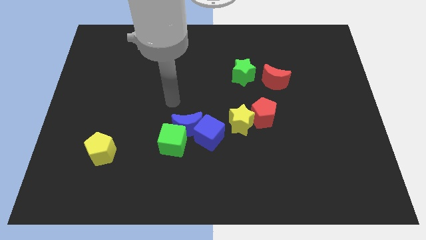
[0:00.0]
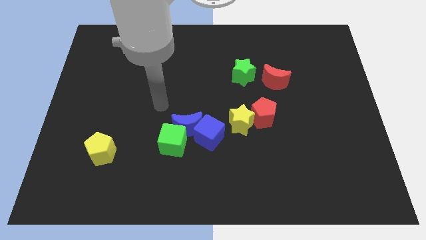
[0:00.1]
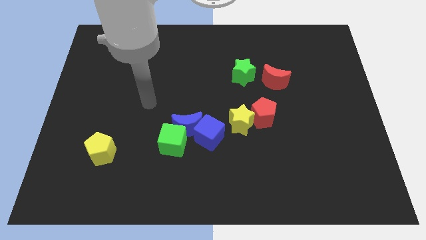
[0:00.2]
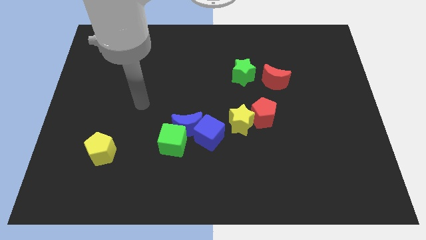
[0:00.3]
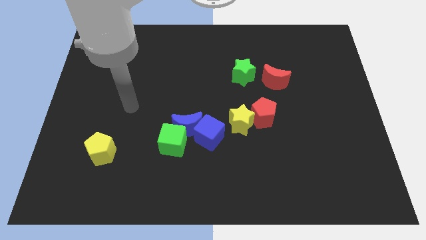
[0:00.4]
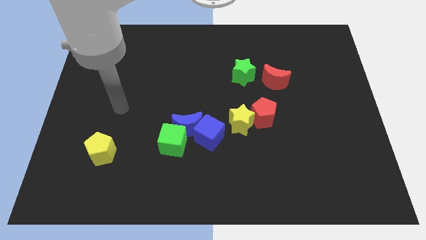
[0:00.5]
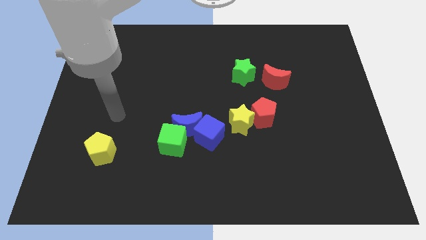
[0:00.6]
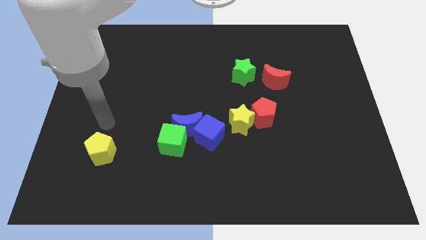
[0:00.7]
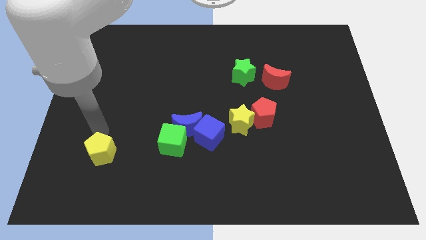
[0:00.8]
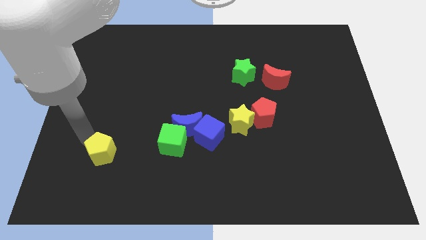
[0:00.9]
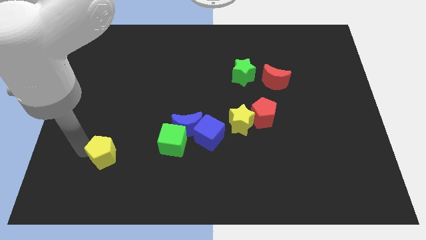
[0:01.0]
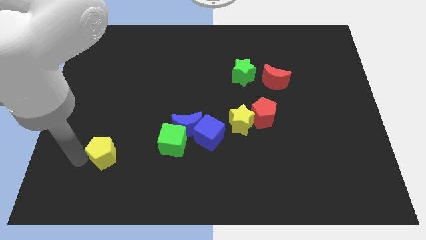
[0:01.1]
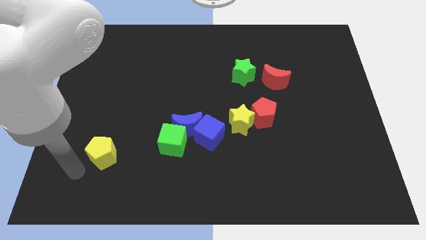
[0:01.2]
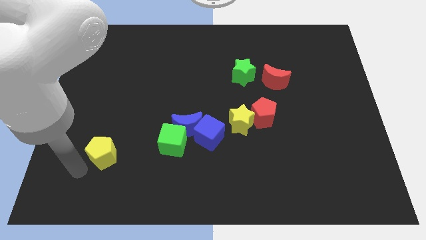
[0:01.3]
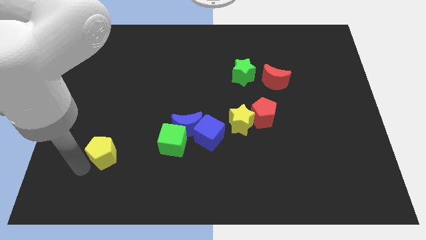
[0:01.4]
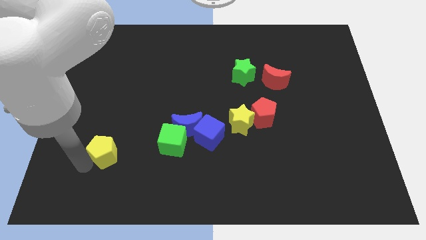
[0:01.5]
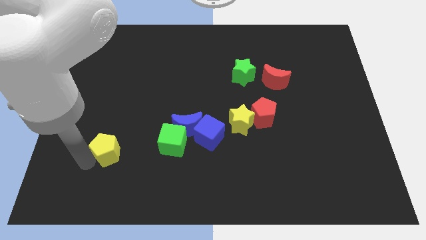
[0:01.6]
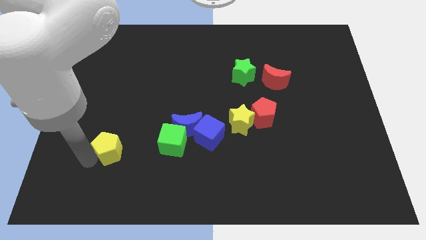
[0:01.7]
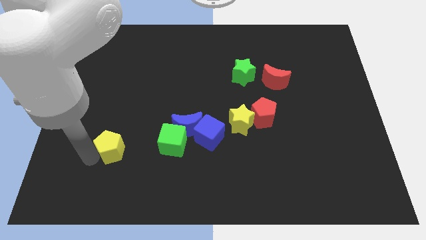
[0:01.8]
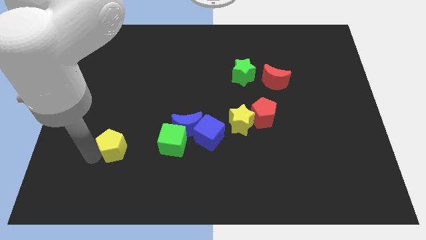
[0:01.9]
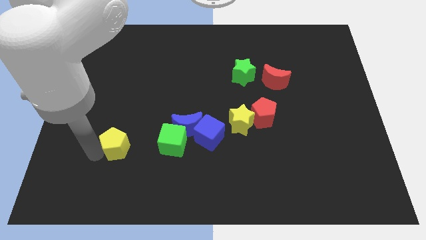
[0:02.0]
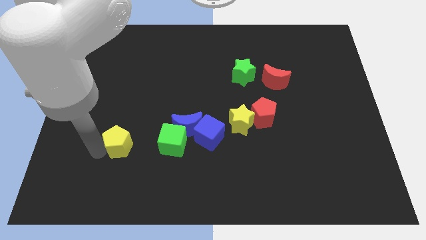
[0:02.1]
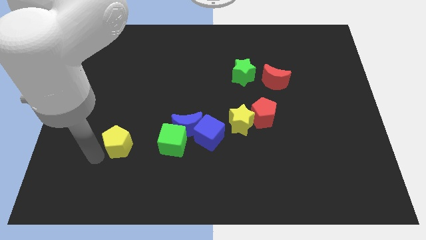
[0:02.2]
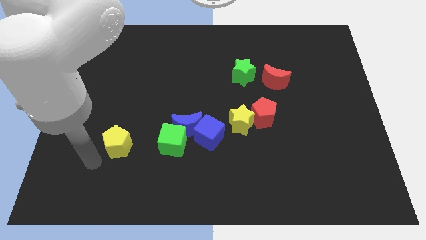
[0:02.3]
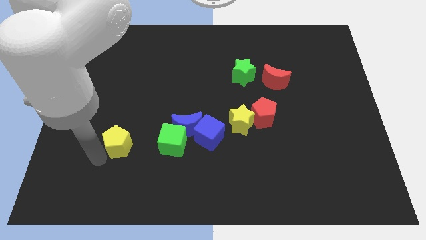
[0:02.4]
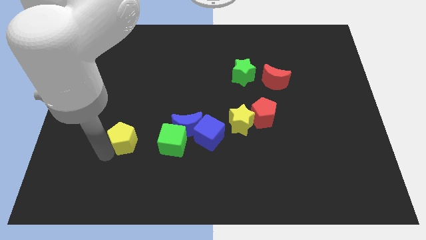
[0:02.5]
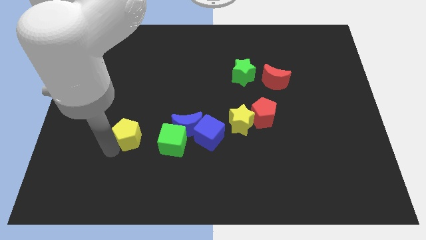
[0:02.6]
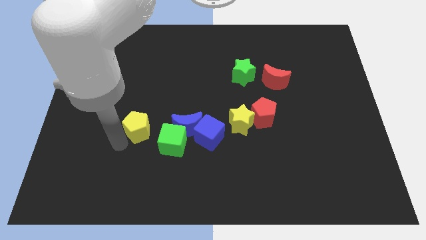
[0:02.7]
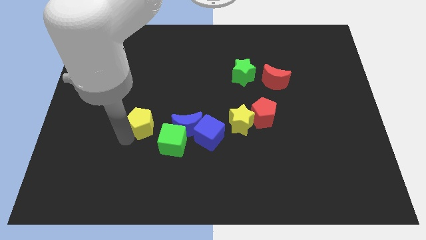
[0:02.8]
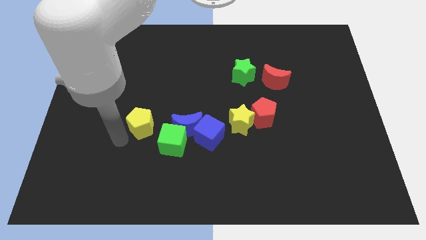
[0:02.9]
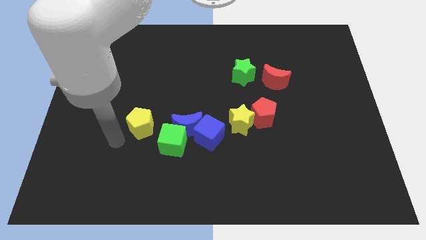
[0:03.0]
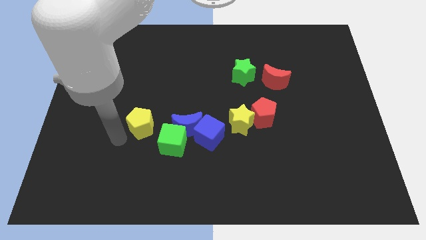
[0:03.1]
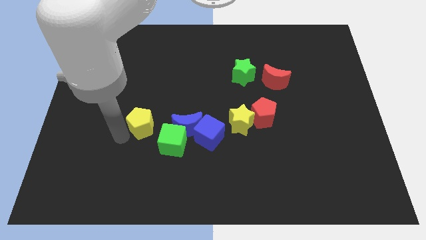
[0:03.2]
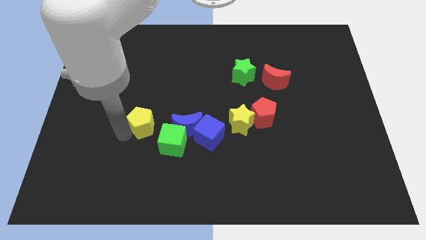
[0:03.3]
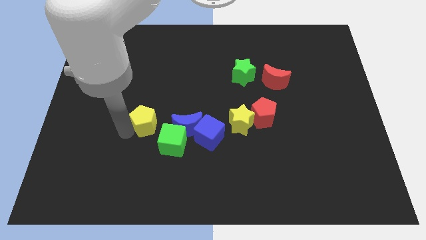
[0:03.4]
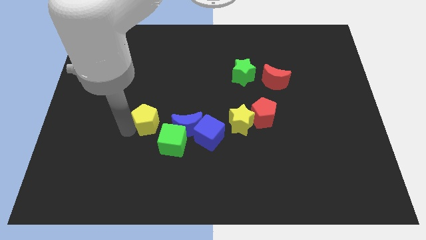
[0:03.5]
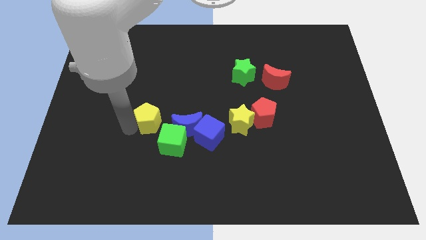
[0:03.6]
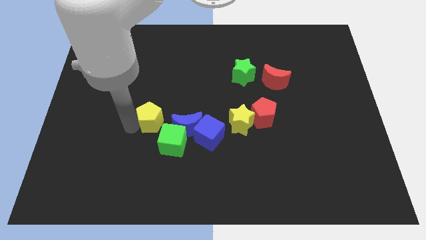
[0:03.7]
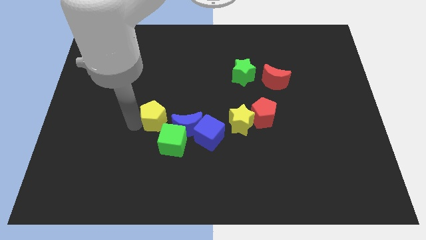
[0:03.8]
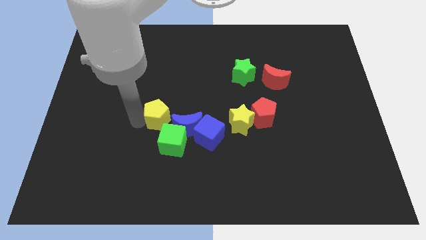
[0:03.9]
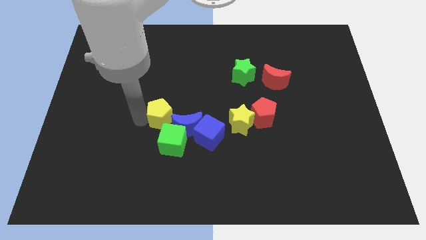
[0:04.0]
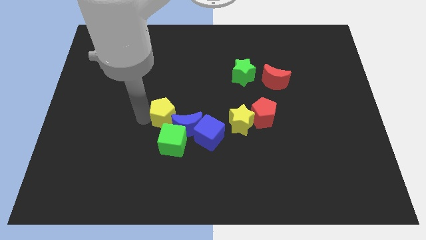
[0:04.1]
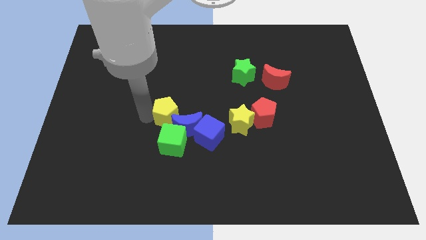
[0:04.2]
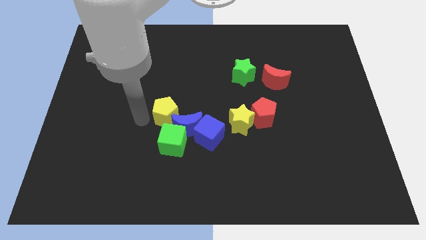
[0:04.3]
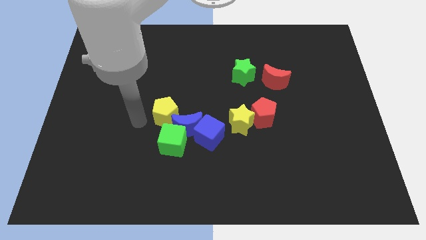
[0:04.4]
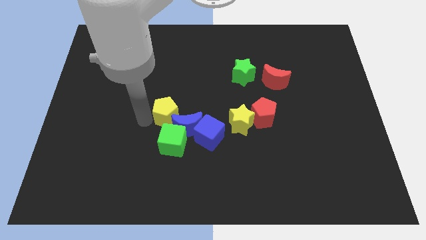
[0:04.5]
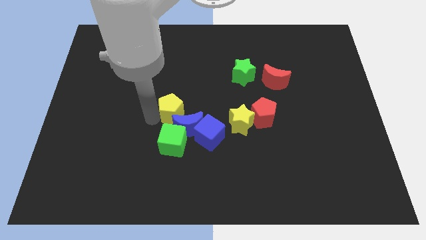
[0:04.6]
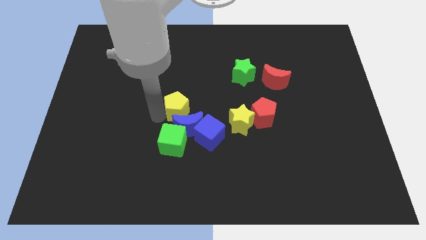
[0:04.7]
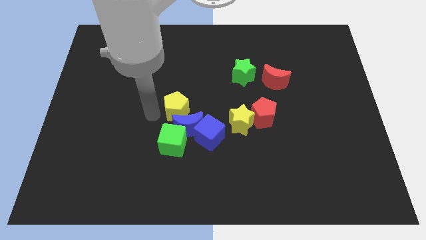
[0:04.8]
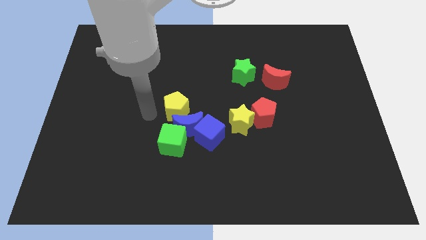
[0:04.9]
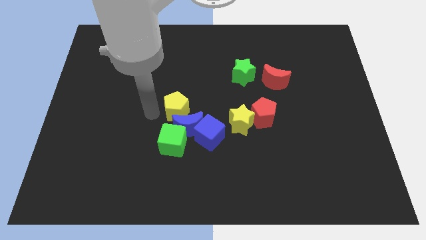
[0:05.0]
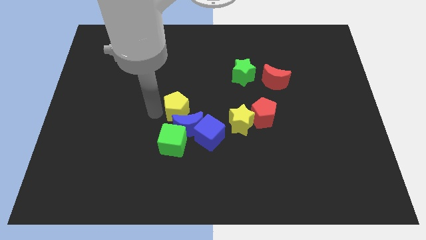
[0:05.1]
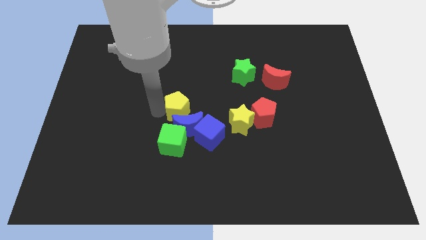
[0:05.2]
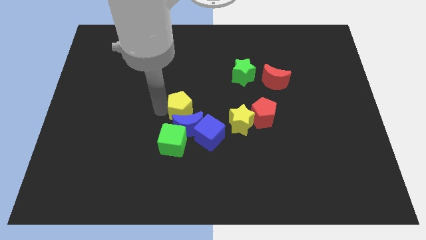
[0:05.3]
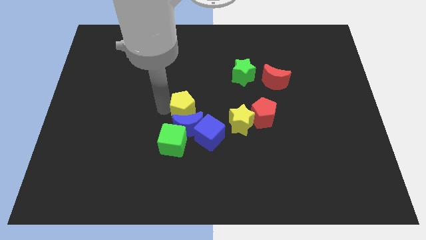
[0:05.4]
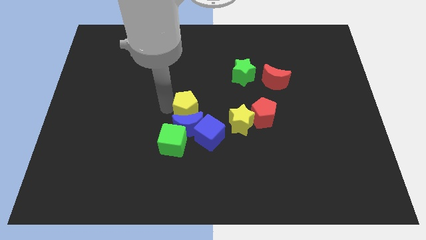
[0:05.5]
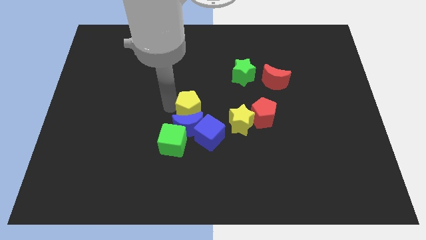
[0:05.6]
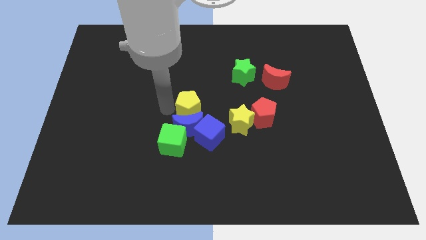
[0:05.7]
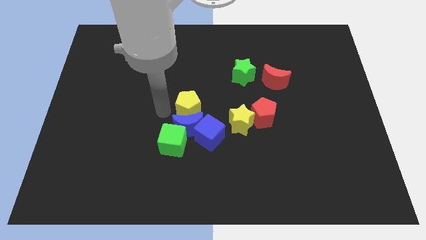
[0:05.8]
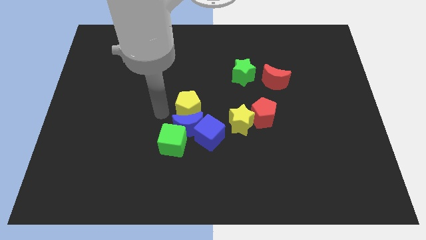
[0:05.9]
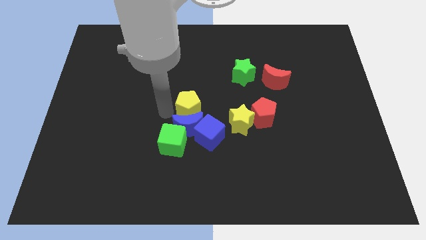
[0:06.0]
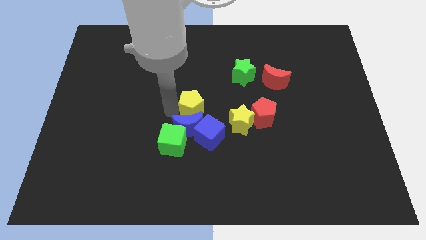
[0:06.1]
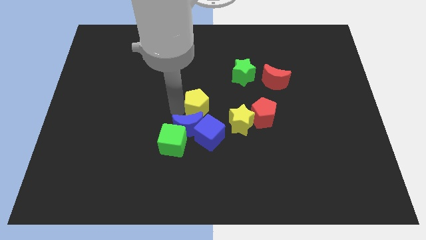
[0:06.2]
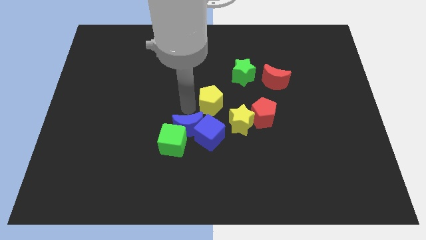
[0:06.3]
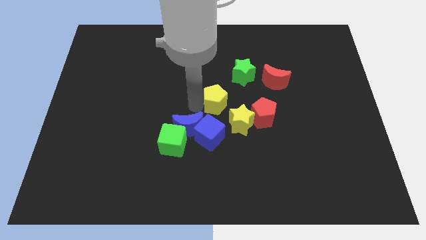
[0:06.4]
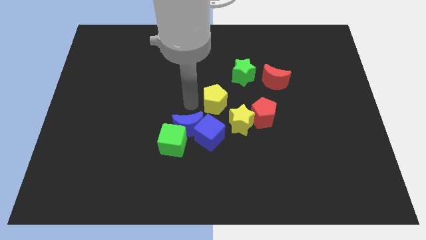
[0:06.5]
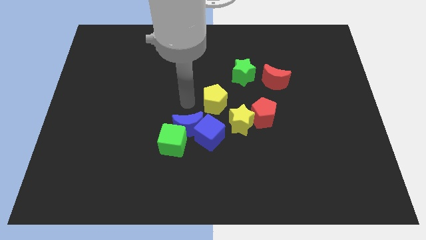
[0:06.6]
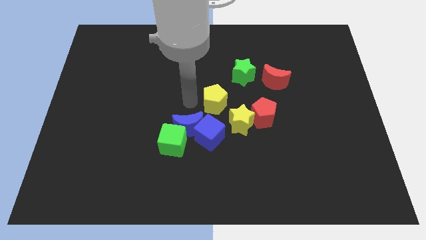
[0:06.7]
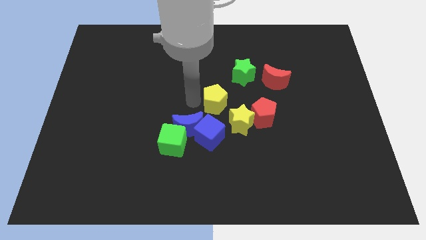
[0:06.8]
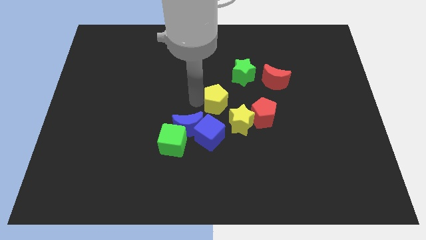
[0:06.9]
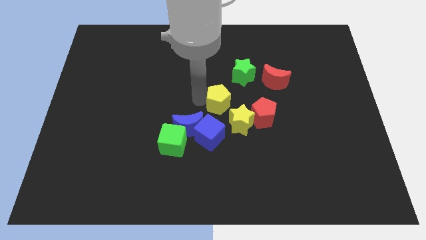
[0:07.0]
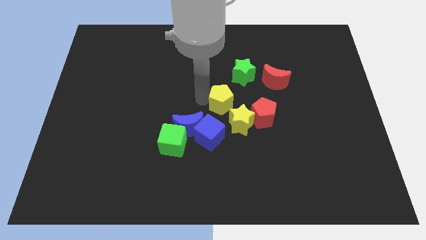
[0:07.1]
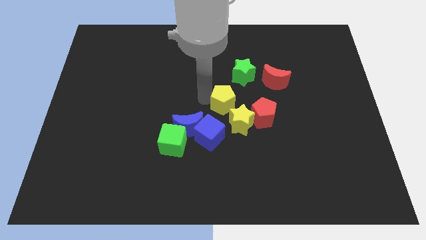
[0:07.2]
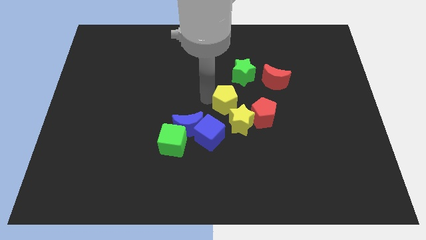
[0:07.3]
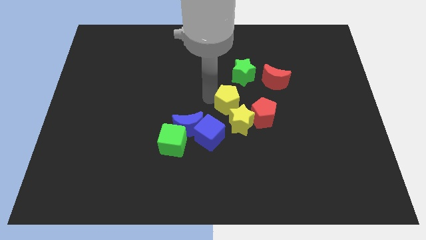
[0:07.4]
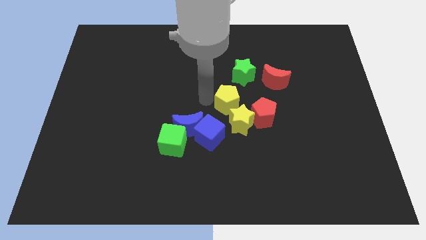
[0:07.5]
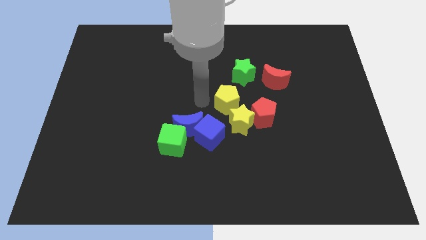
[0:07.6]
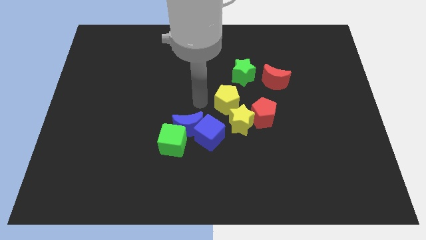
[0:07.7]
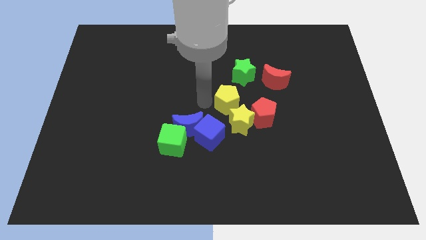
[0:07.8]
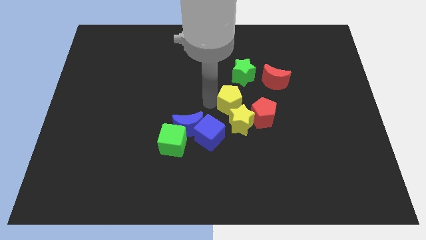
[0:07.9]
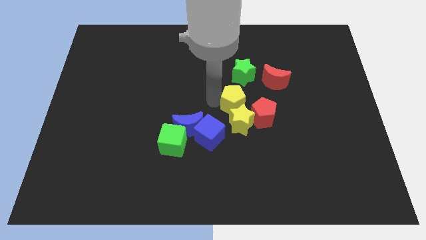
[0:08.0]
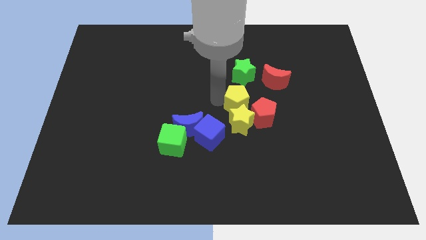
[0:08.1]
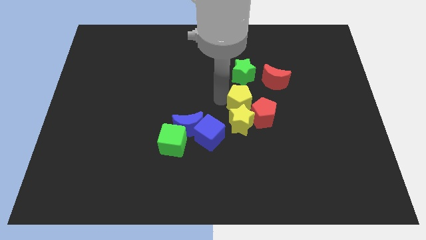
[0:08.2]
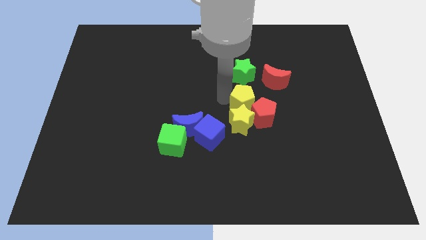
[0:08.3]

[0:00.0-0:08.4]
push the yellow pentagon towards the red pentagon
